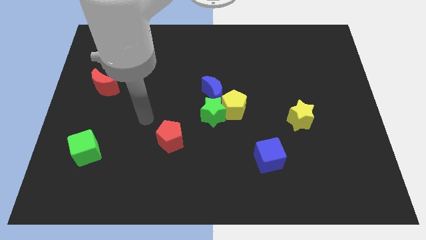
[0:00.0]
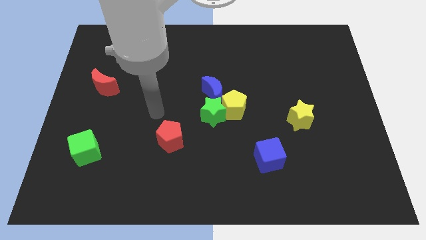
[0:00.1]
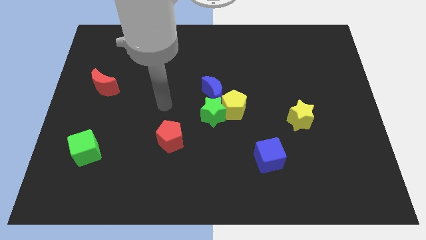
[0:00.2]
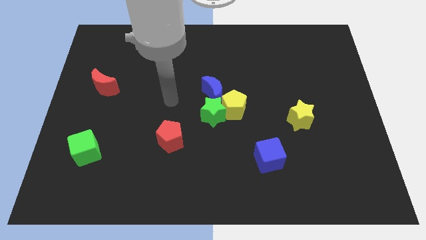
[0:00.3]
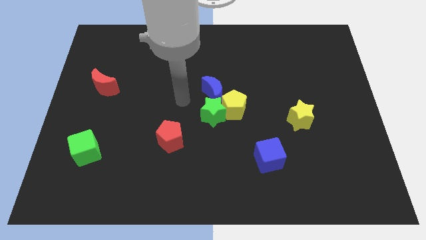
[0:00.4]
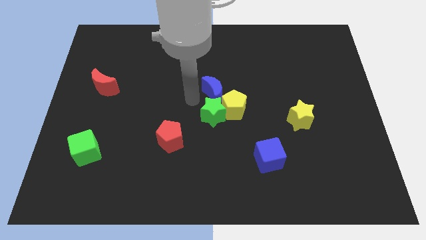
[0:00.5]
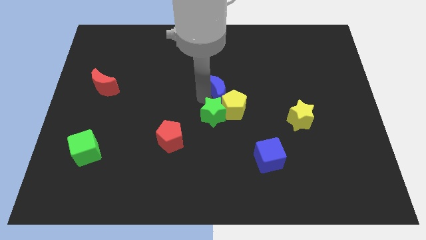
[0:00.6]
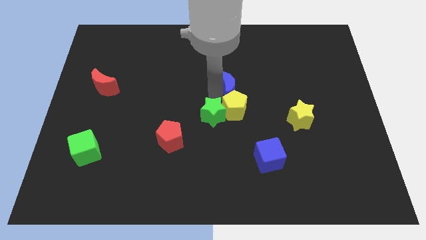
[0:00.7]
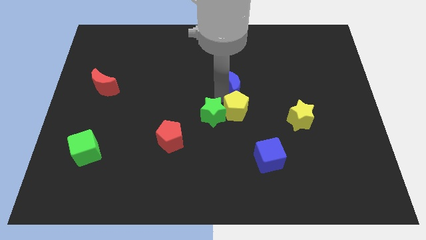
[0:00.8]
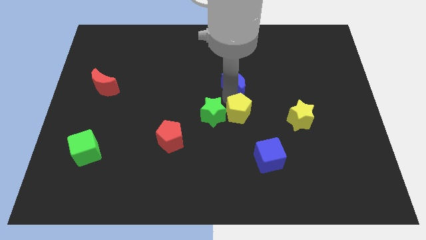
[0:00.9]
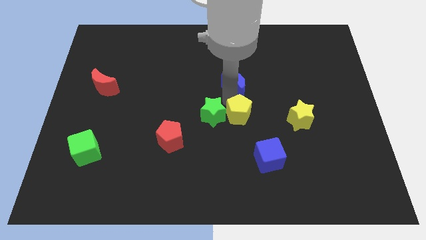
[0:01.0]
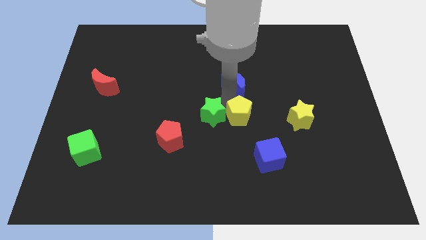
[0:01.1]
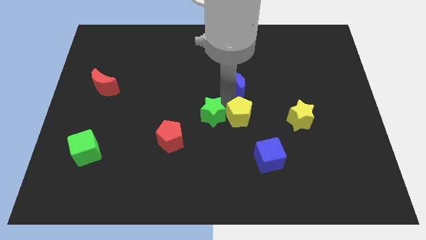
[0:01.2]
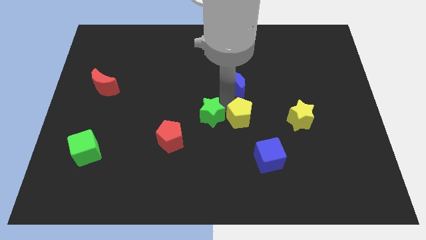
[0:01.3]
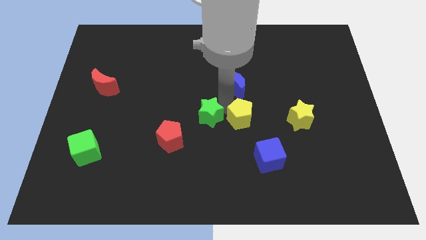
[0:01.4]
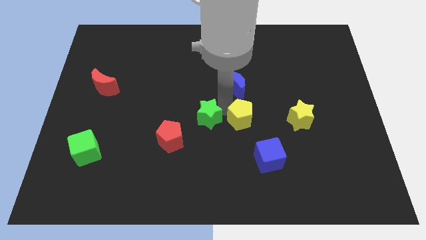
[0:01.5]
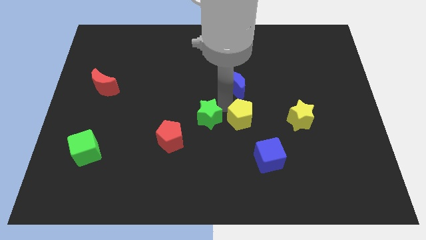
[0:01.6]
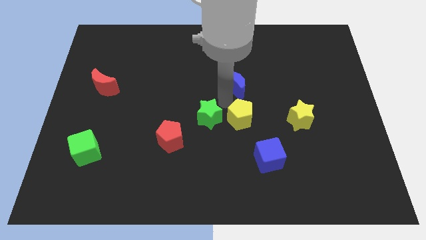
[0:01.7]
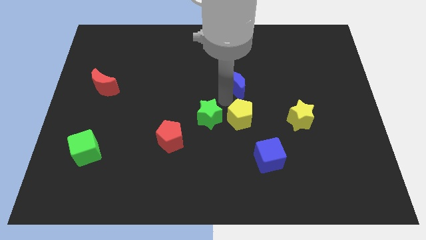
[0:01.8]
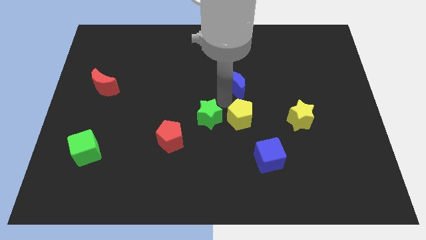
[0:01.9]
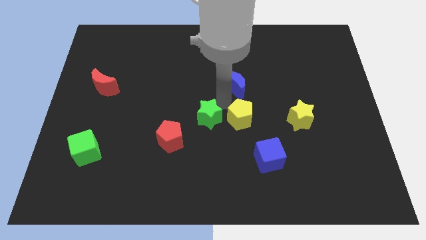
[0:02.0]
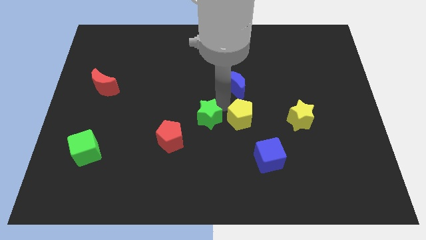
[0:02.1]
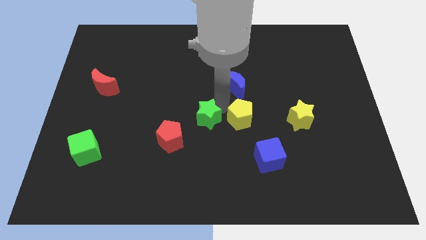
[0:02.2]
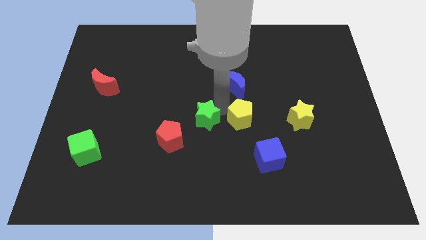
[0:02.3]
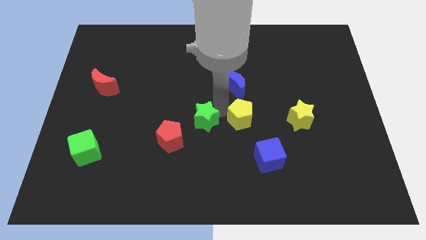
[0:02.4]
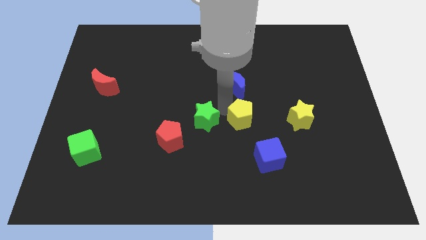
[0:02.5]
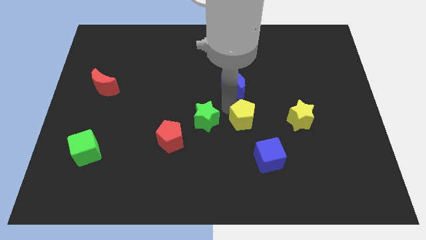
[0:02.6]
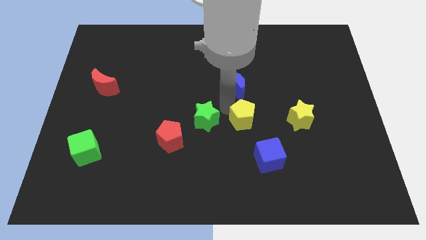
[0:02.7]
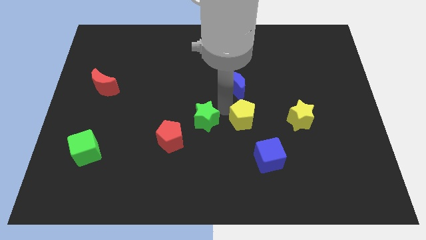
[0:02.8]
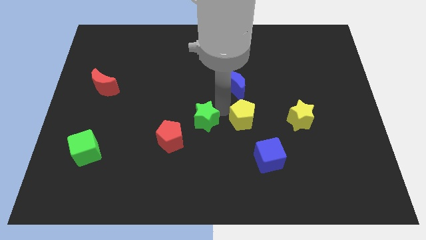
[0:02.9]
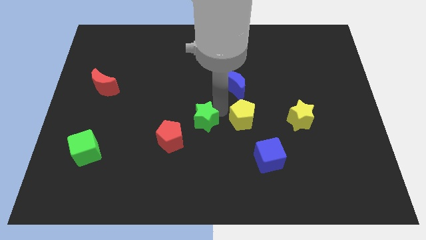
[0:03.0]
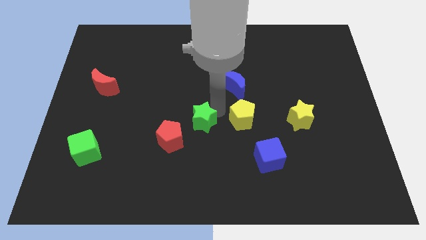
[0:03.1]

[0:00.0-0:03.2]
separate the green star from the yellow pentagon and blue moon

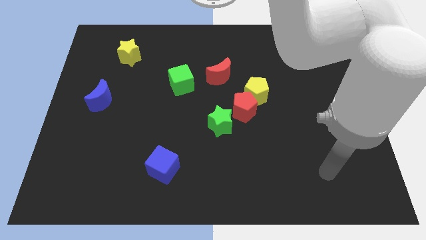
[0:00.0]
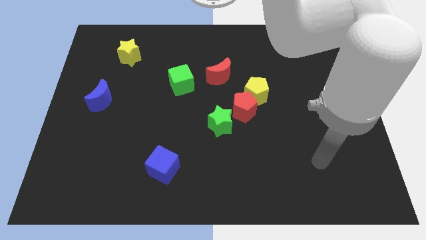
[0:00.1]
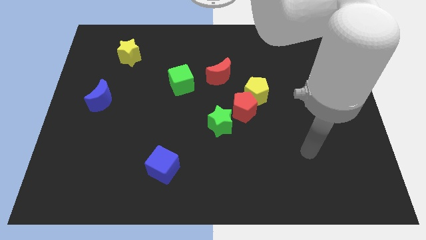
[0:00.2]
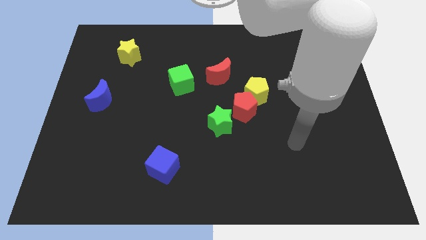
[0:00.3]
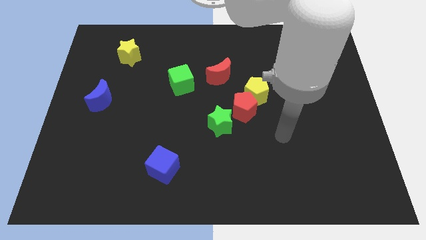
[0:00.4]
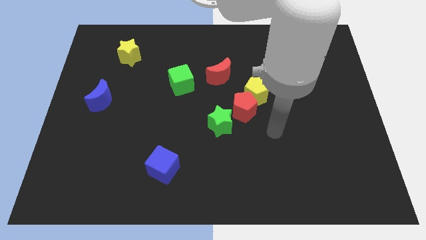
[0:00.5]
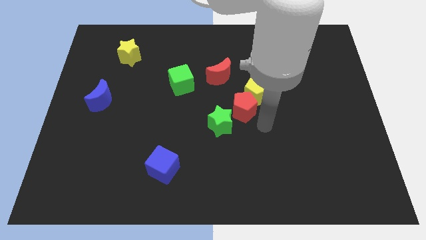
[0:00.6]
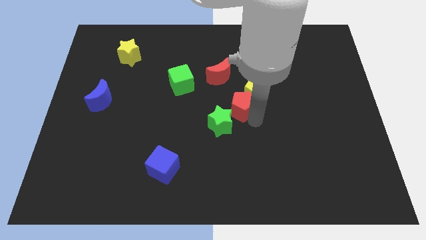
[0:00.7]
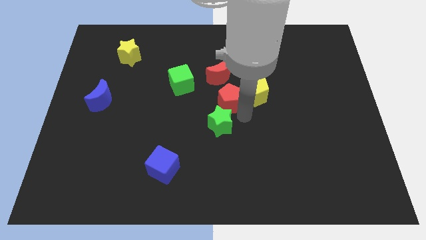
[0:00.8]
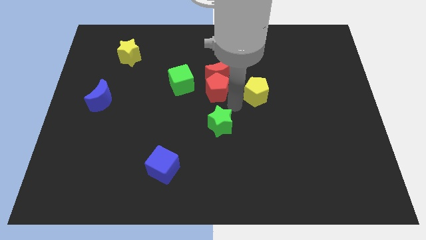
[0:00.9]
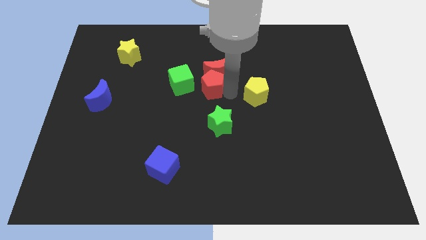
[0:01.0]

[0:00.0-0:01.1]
separate the yellow pentagon from the red pentagon

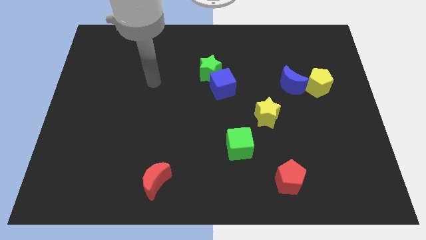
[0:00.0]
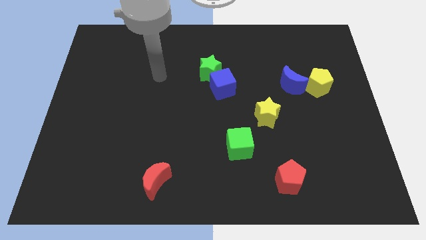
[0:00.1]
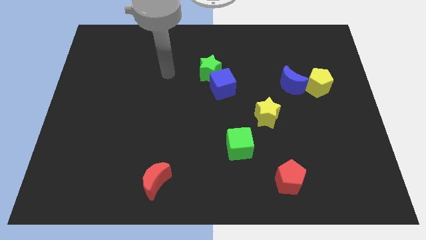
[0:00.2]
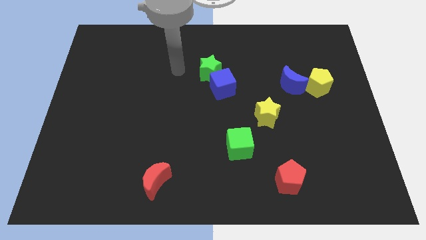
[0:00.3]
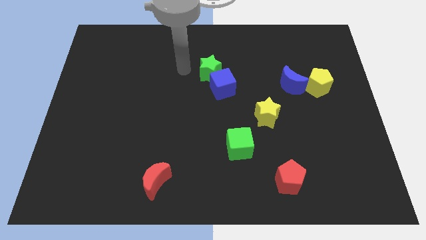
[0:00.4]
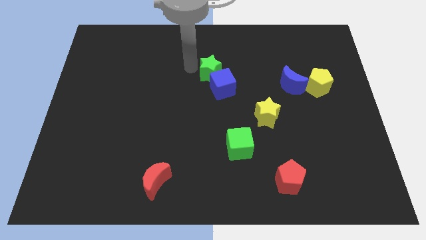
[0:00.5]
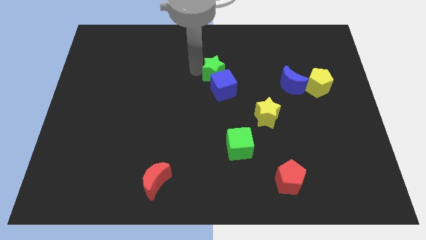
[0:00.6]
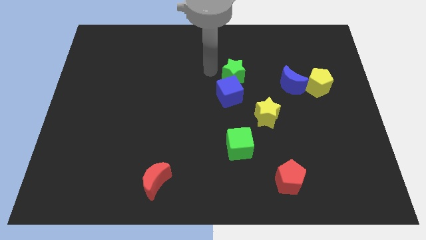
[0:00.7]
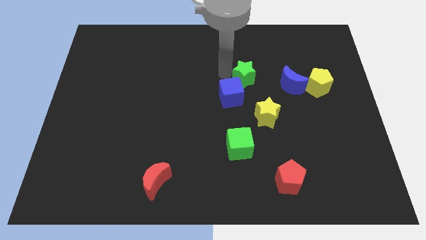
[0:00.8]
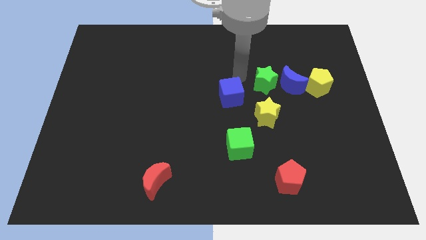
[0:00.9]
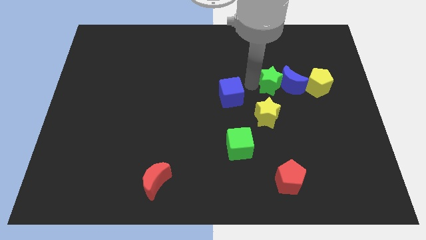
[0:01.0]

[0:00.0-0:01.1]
move the blue cube away from the green star

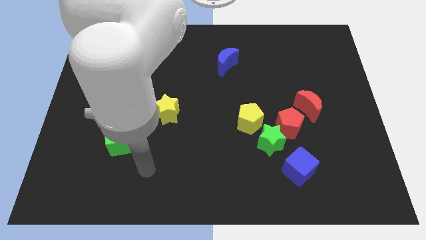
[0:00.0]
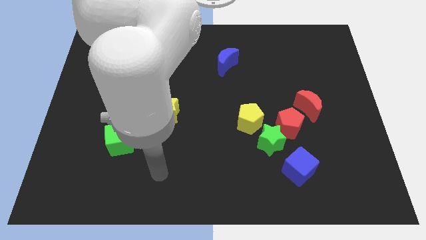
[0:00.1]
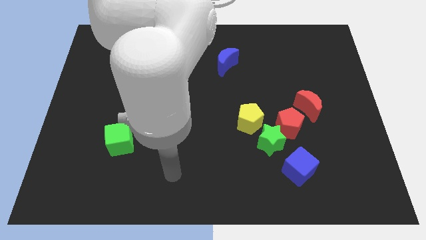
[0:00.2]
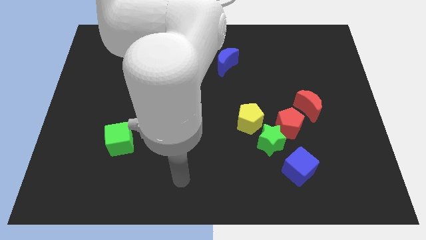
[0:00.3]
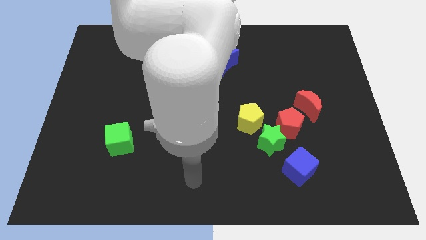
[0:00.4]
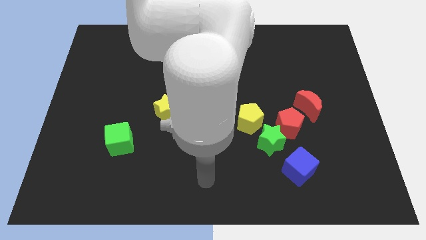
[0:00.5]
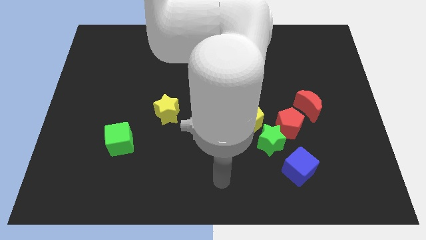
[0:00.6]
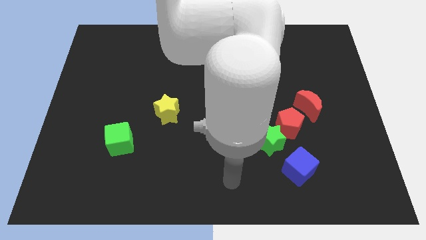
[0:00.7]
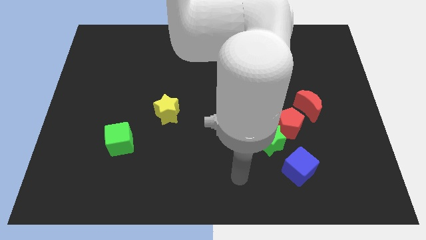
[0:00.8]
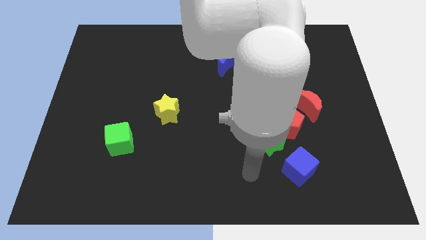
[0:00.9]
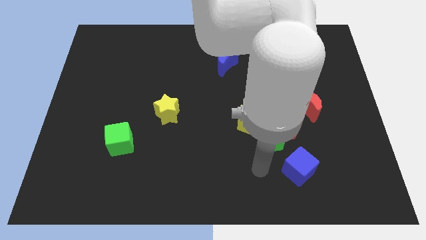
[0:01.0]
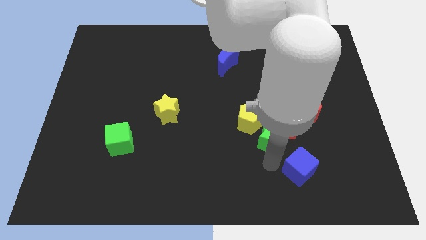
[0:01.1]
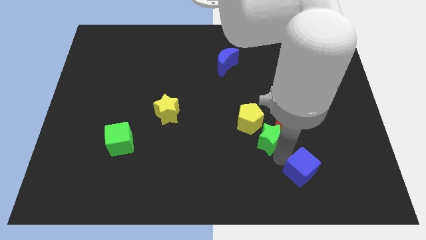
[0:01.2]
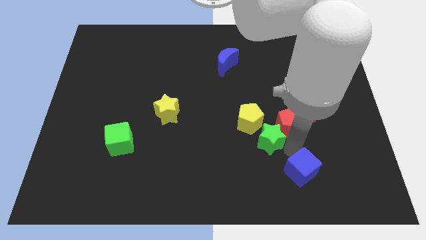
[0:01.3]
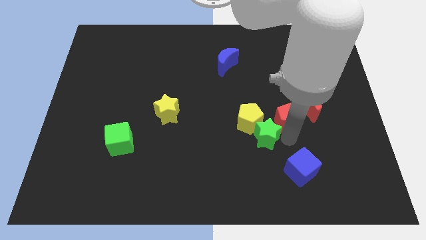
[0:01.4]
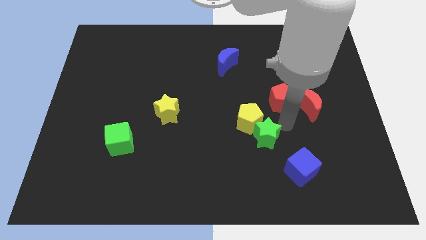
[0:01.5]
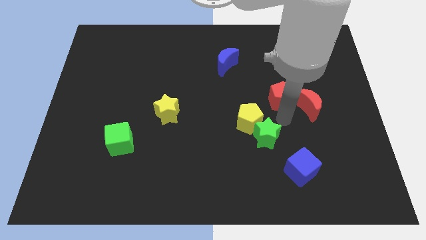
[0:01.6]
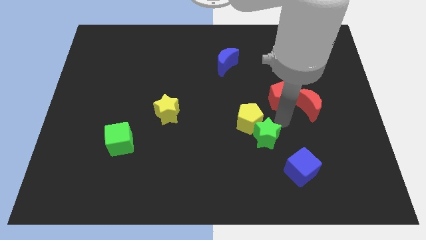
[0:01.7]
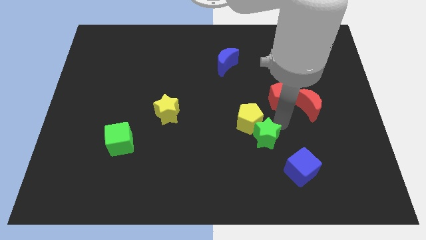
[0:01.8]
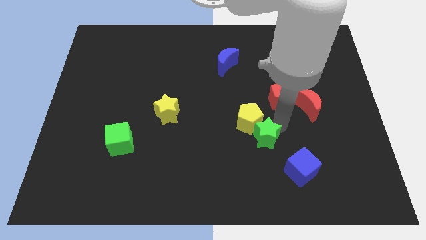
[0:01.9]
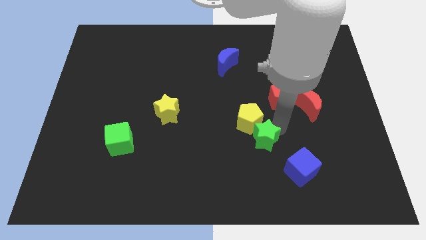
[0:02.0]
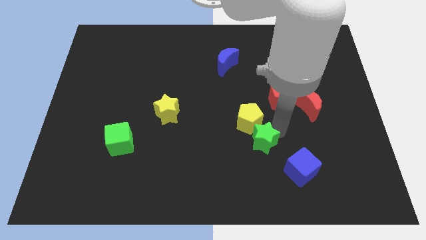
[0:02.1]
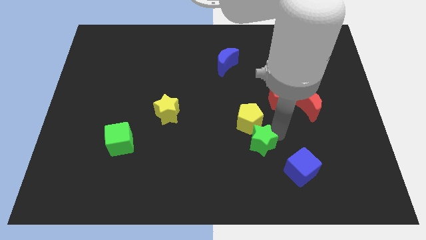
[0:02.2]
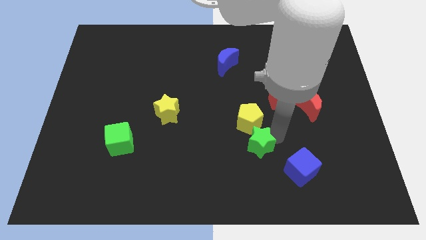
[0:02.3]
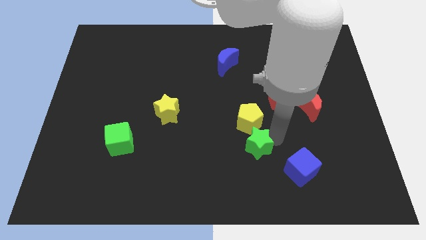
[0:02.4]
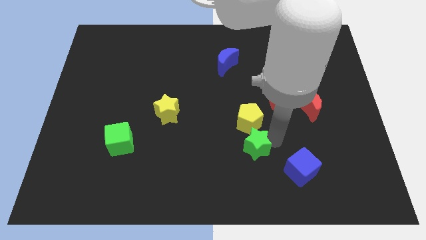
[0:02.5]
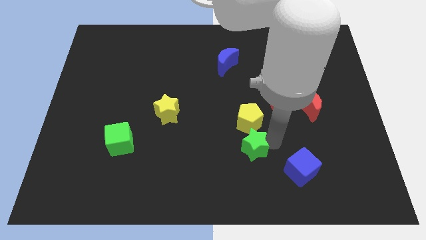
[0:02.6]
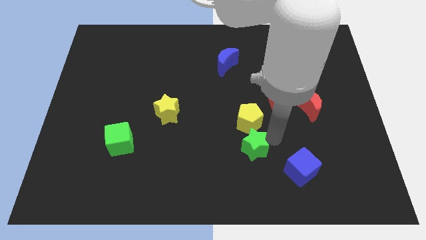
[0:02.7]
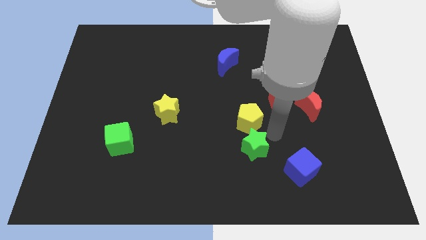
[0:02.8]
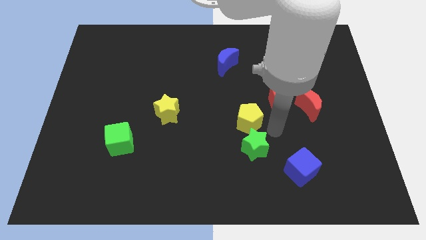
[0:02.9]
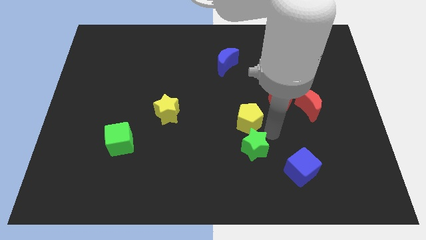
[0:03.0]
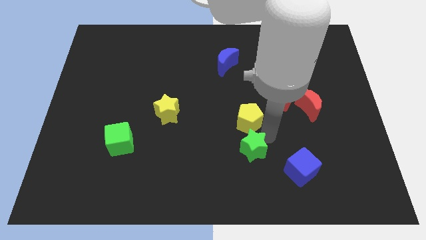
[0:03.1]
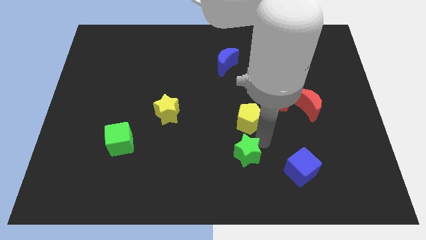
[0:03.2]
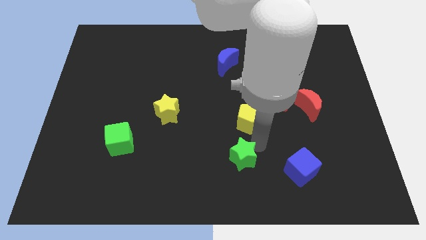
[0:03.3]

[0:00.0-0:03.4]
pull the green star apart from the red pentagon, yellow pentagon, and blue cube

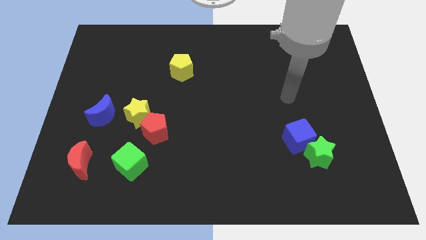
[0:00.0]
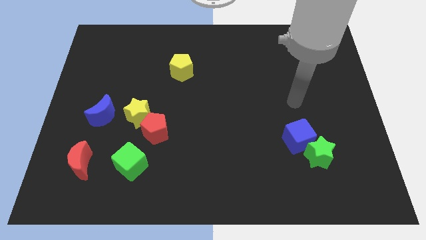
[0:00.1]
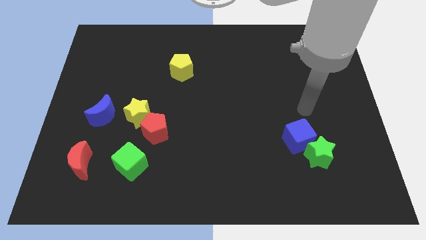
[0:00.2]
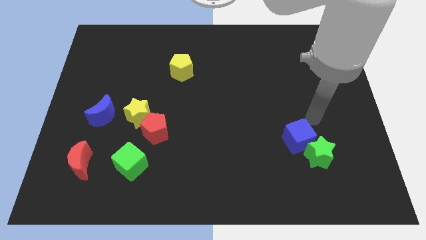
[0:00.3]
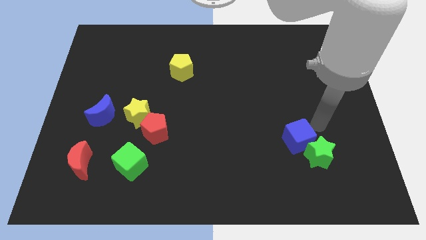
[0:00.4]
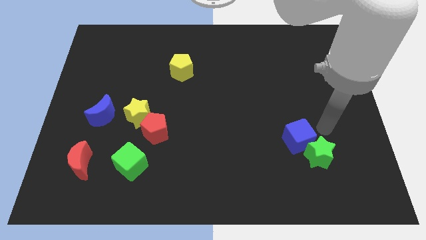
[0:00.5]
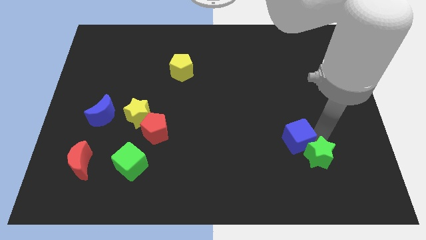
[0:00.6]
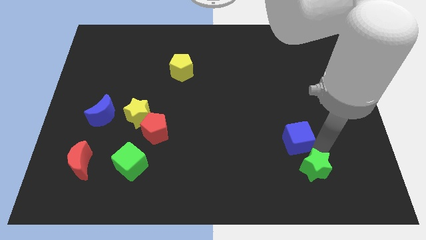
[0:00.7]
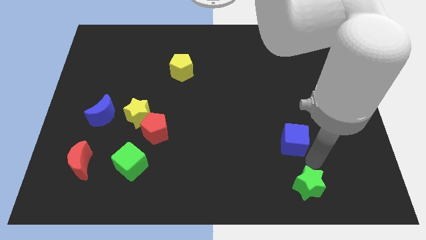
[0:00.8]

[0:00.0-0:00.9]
separate the blue cube from the green star
